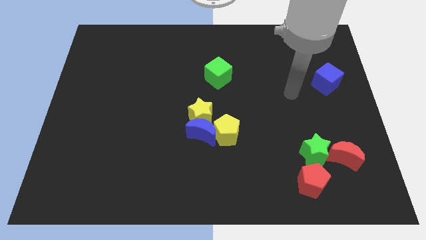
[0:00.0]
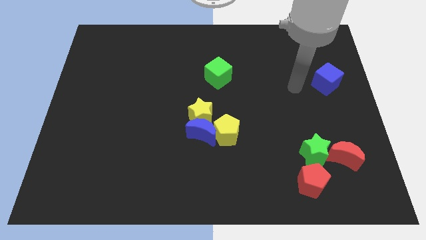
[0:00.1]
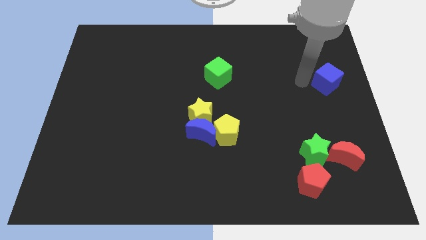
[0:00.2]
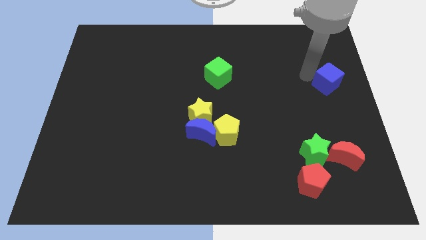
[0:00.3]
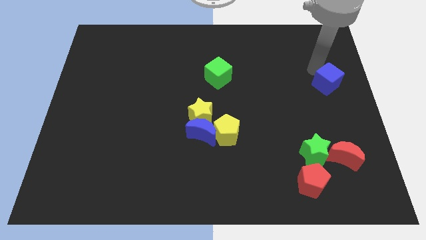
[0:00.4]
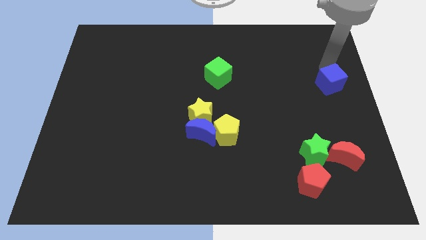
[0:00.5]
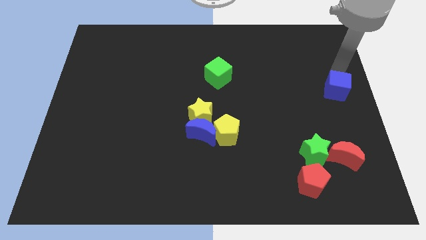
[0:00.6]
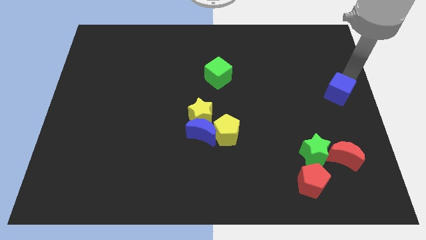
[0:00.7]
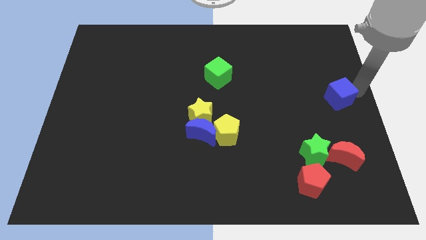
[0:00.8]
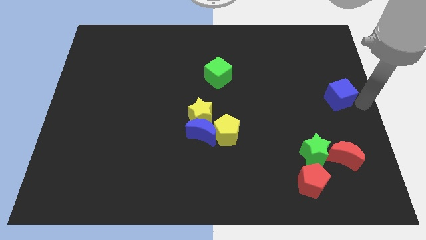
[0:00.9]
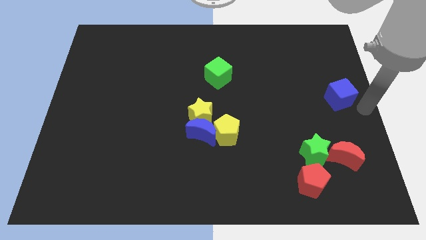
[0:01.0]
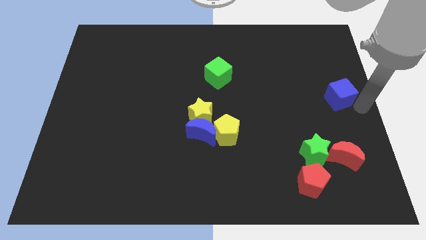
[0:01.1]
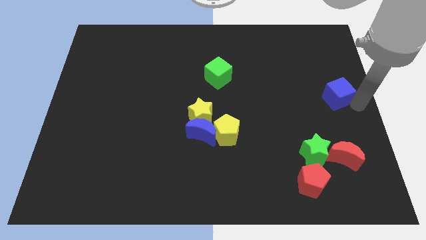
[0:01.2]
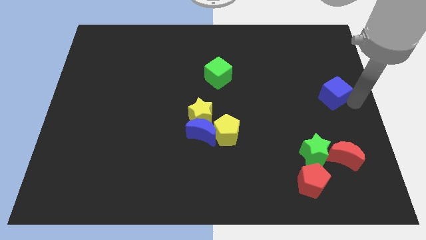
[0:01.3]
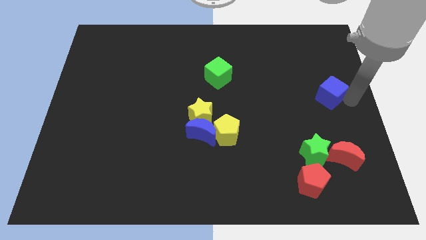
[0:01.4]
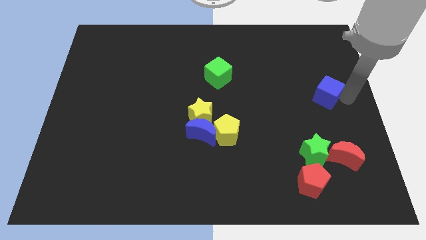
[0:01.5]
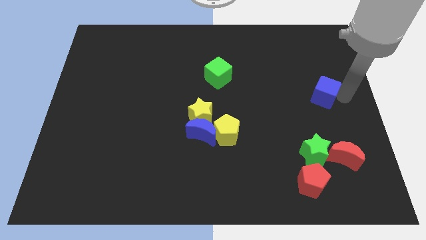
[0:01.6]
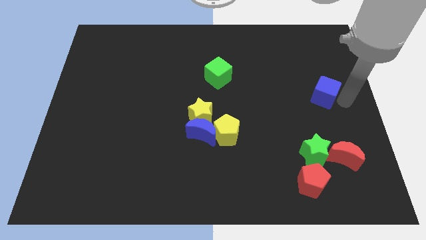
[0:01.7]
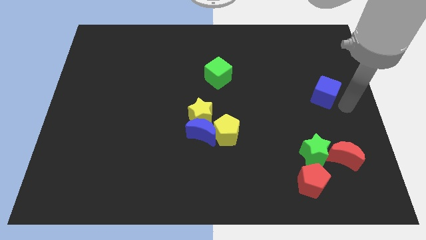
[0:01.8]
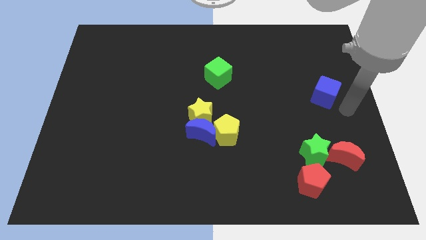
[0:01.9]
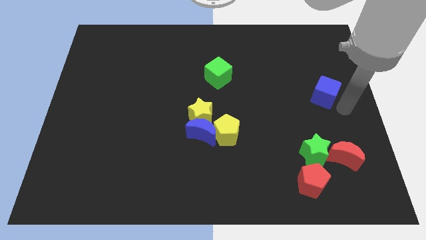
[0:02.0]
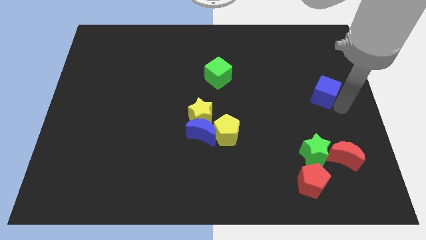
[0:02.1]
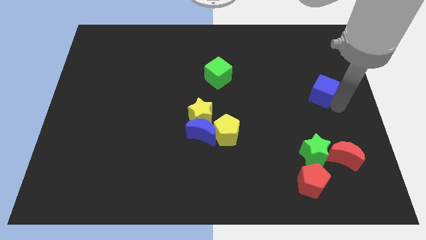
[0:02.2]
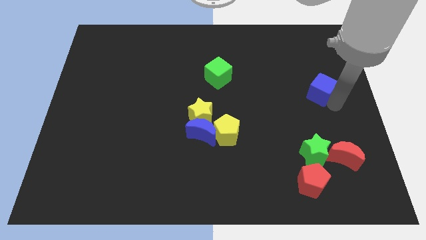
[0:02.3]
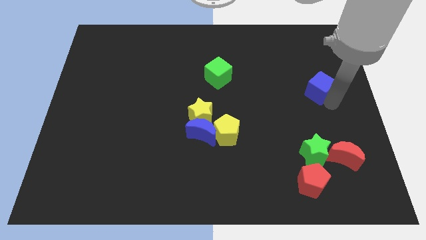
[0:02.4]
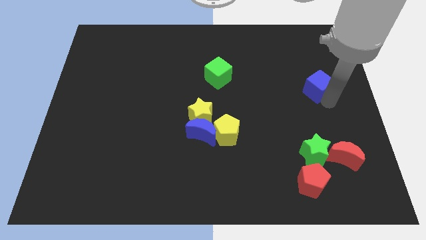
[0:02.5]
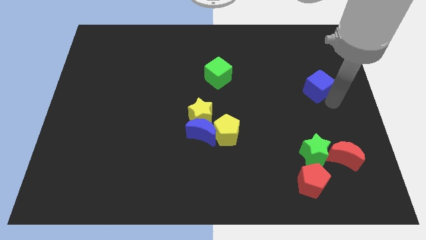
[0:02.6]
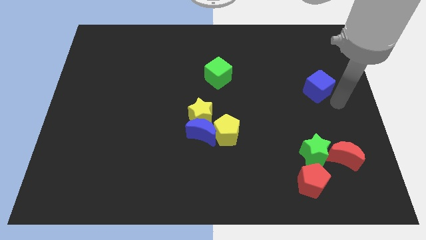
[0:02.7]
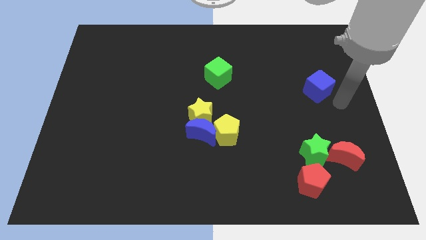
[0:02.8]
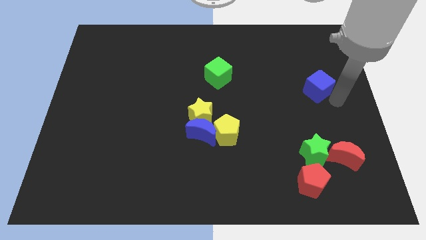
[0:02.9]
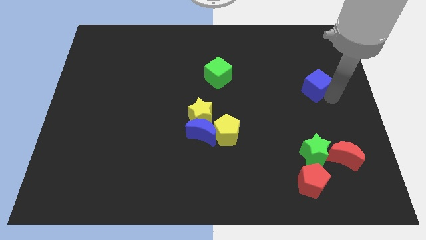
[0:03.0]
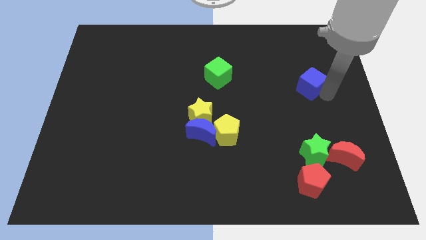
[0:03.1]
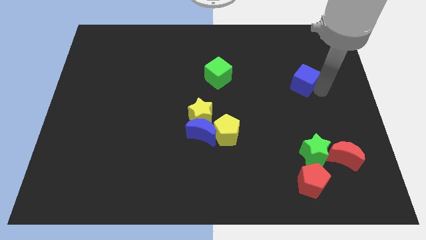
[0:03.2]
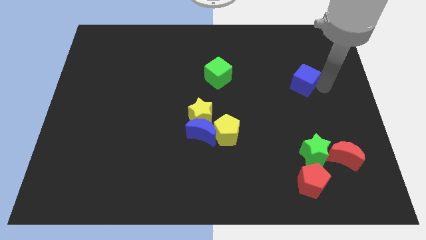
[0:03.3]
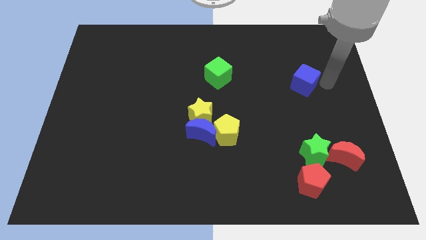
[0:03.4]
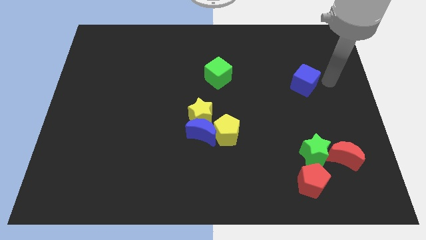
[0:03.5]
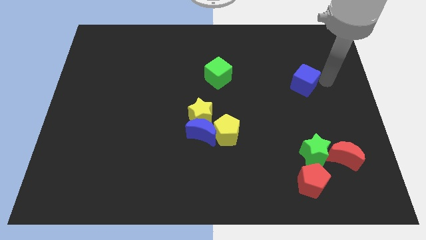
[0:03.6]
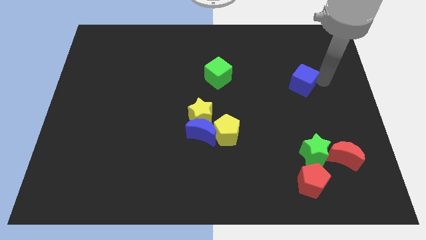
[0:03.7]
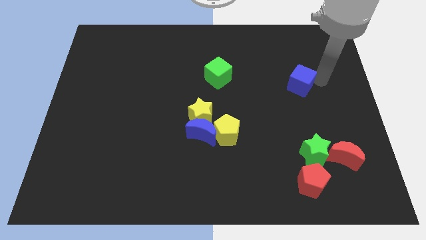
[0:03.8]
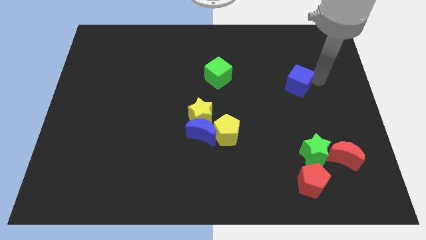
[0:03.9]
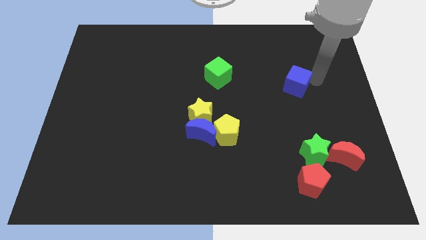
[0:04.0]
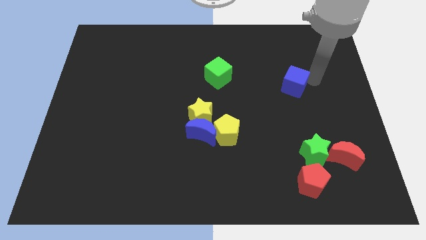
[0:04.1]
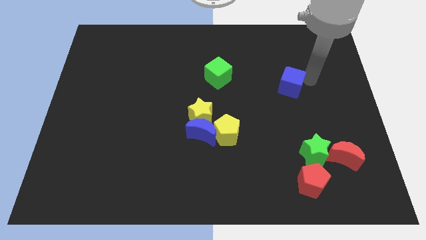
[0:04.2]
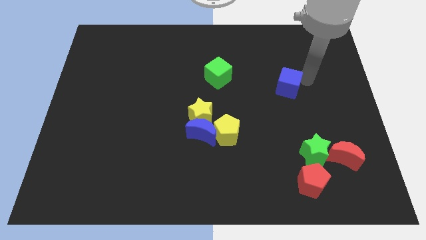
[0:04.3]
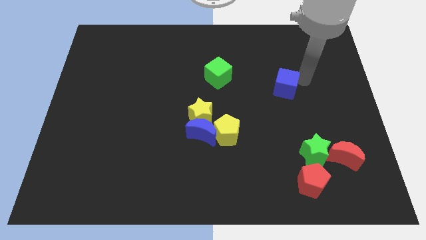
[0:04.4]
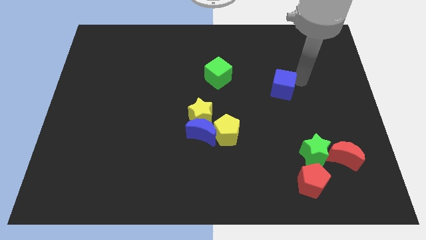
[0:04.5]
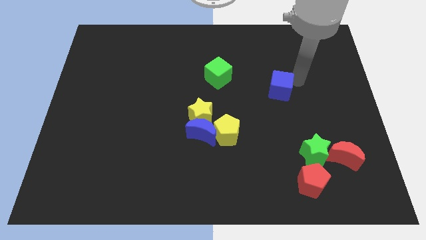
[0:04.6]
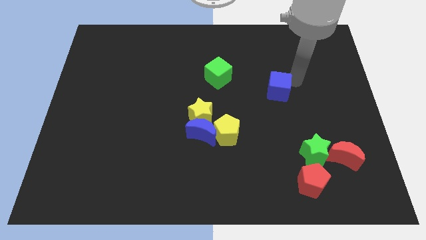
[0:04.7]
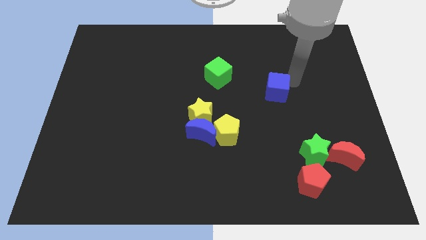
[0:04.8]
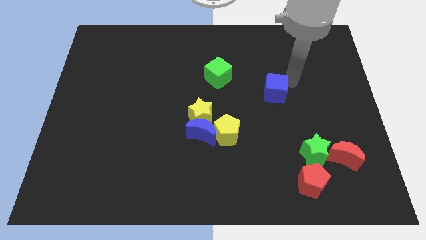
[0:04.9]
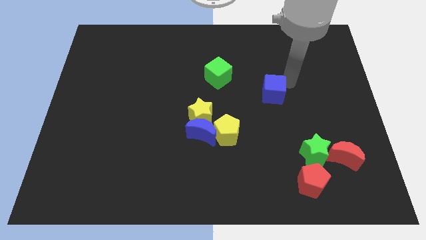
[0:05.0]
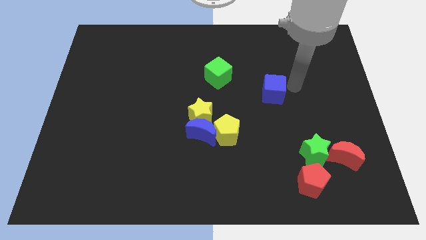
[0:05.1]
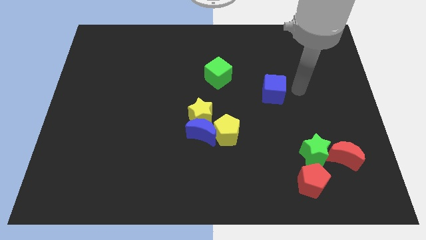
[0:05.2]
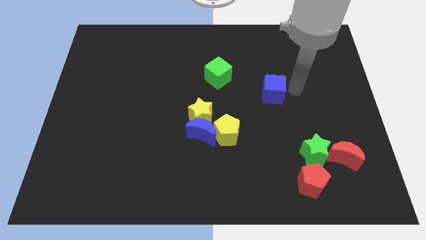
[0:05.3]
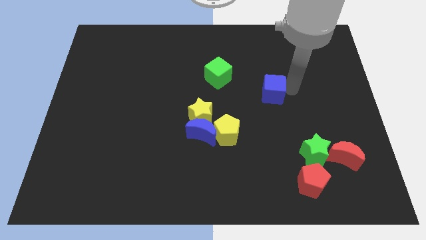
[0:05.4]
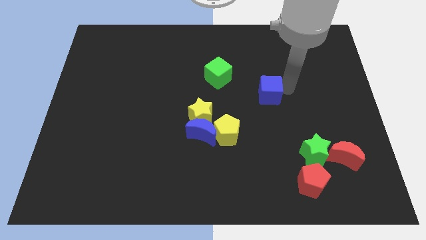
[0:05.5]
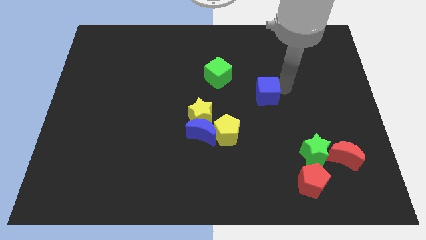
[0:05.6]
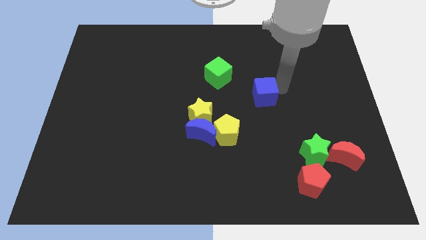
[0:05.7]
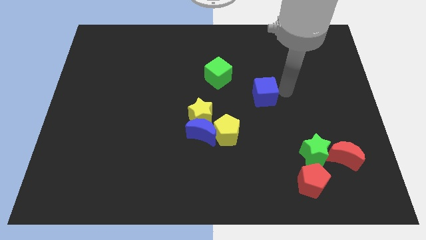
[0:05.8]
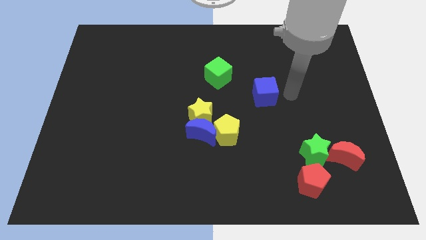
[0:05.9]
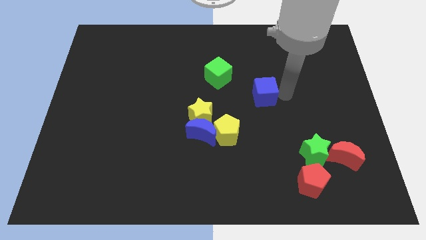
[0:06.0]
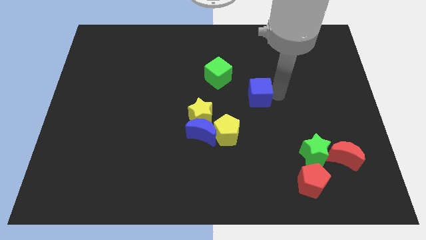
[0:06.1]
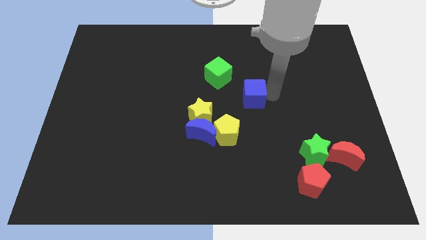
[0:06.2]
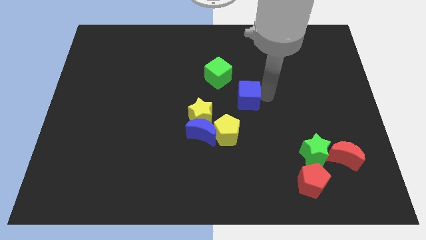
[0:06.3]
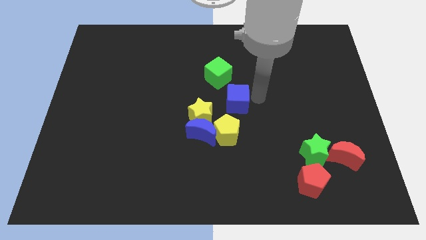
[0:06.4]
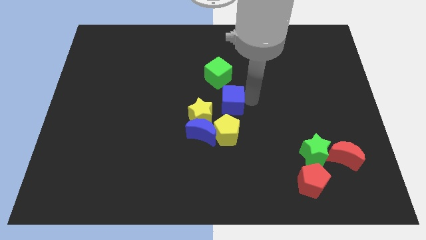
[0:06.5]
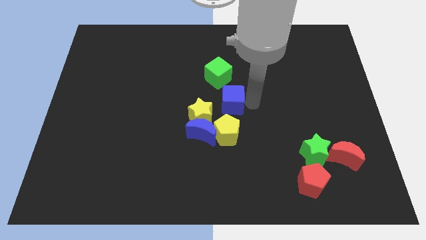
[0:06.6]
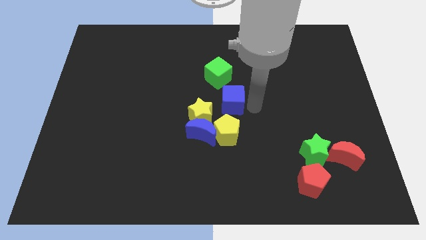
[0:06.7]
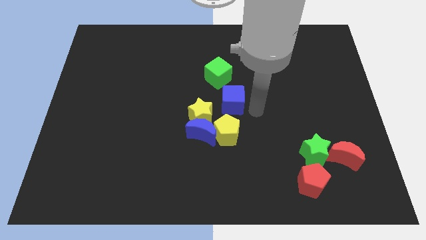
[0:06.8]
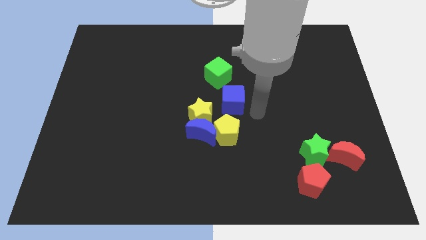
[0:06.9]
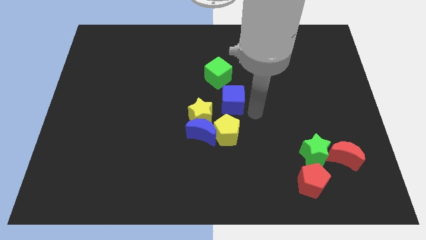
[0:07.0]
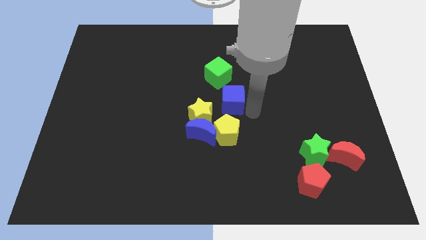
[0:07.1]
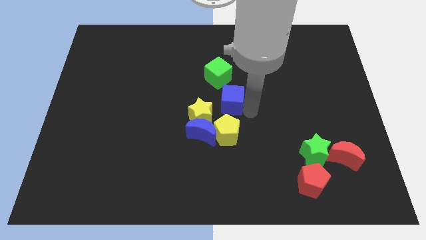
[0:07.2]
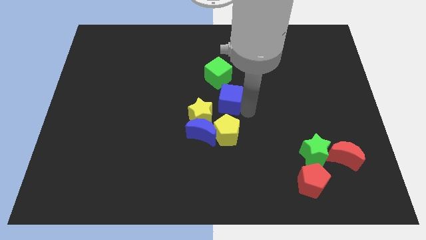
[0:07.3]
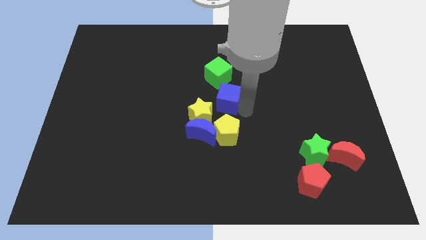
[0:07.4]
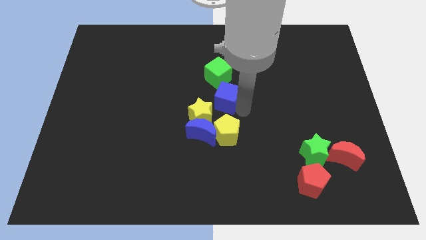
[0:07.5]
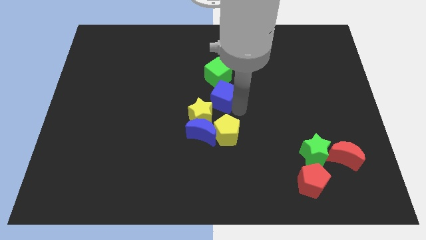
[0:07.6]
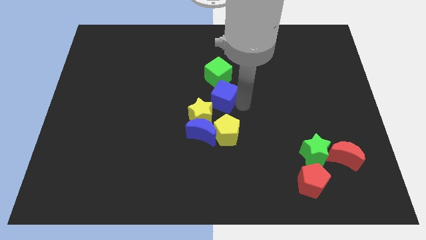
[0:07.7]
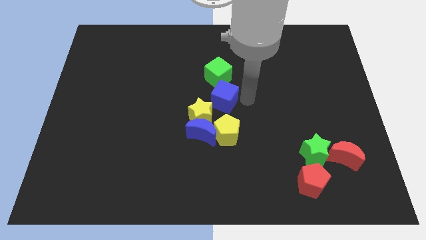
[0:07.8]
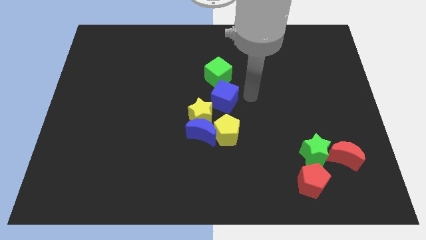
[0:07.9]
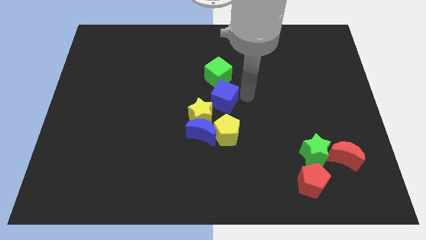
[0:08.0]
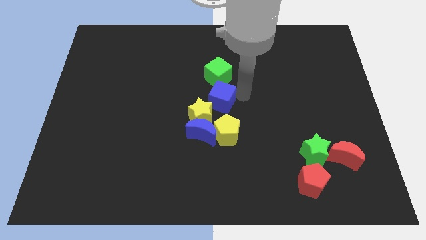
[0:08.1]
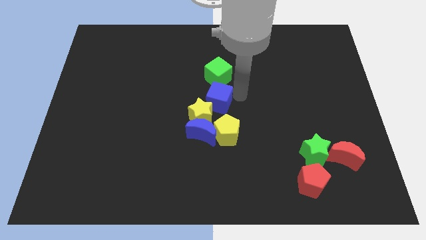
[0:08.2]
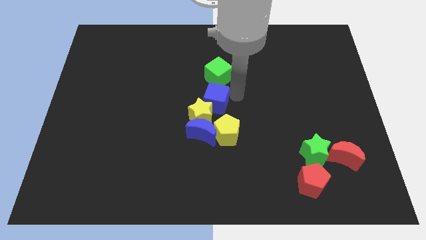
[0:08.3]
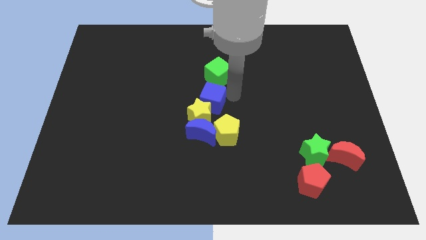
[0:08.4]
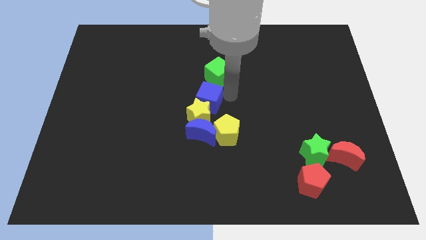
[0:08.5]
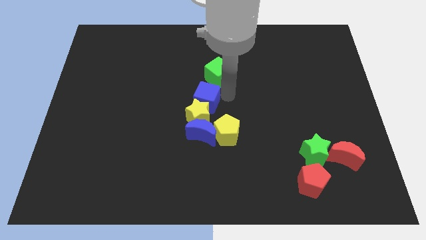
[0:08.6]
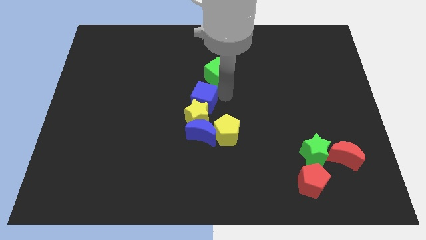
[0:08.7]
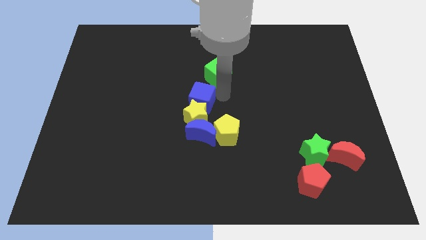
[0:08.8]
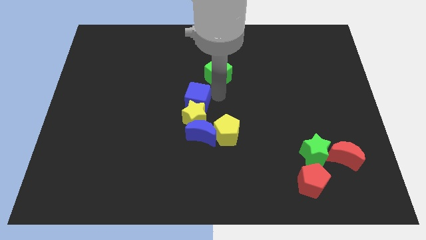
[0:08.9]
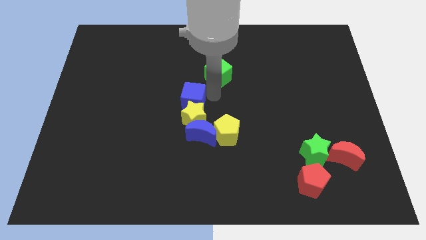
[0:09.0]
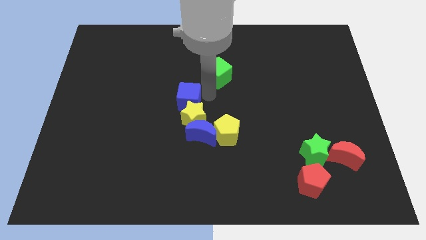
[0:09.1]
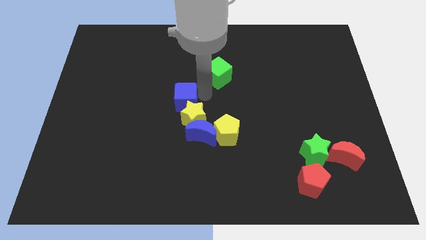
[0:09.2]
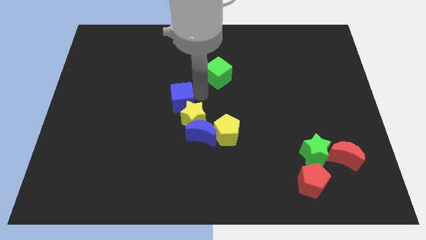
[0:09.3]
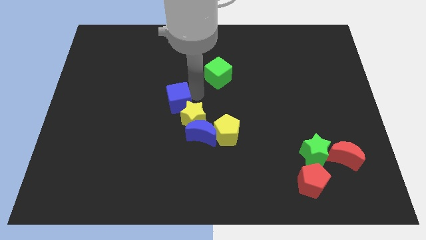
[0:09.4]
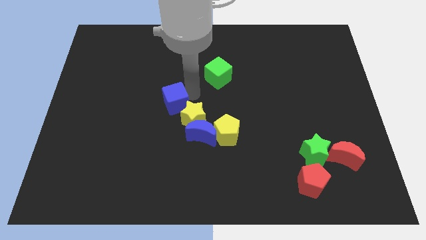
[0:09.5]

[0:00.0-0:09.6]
put the blue cube to the left side of the yellow star
